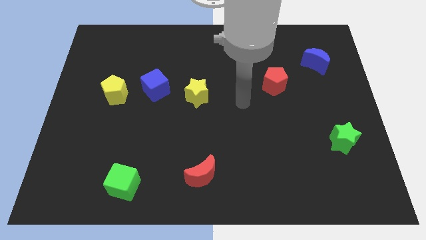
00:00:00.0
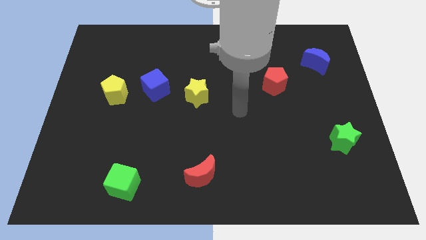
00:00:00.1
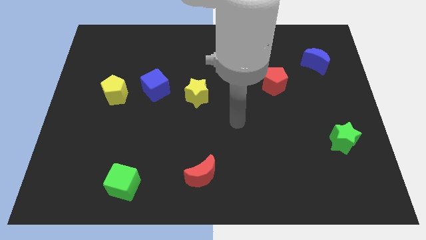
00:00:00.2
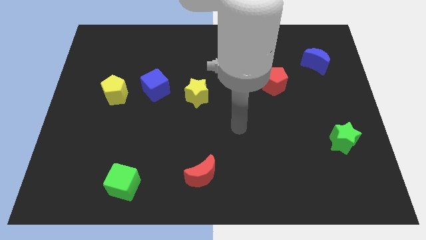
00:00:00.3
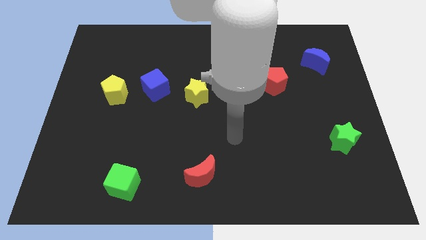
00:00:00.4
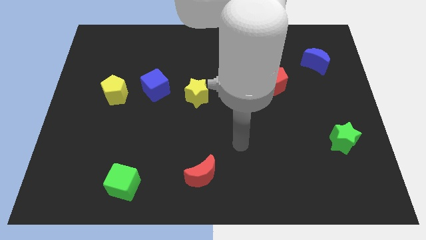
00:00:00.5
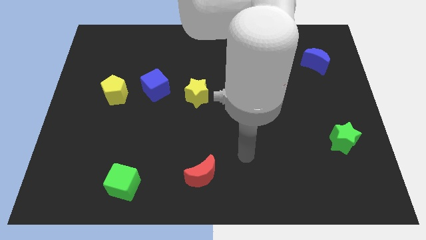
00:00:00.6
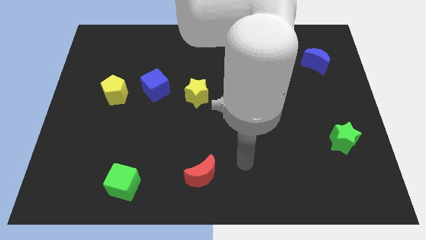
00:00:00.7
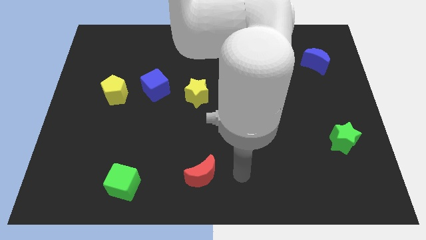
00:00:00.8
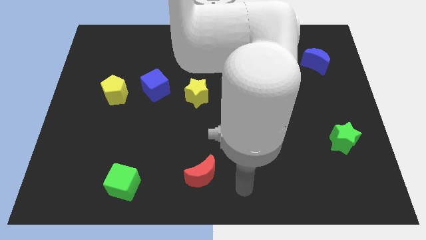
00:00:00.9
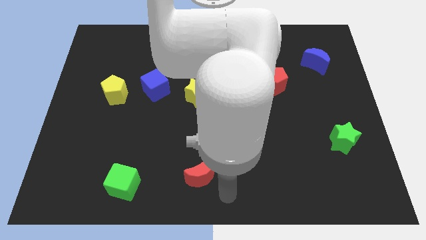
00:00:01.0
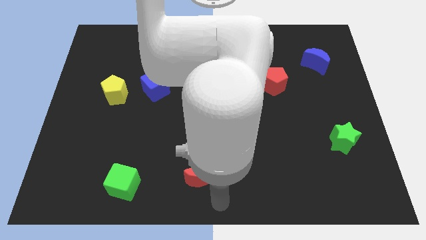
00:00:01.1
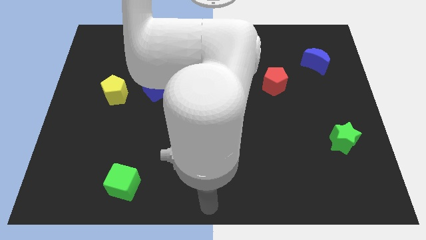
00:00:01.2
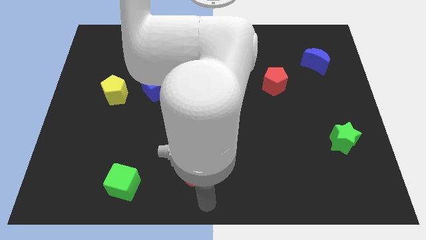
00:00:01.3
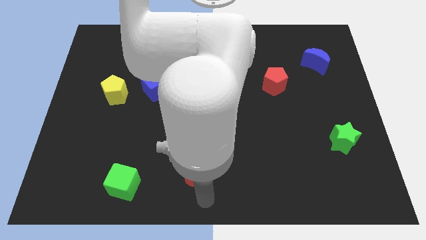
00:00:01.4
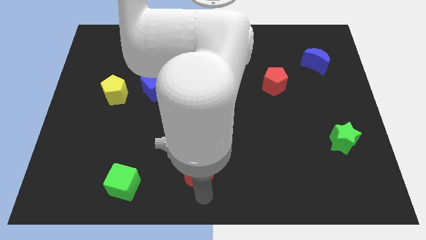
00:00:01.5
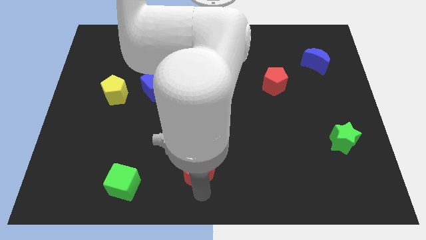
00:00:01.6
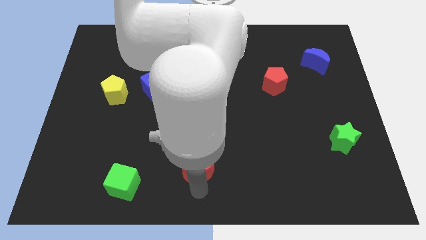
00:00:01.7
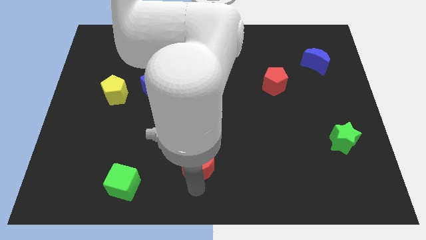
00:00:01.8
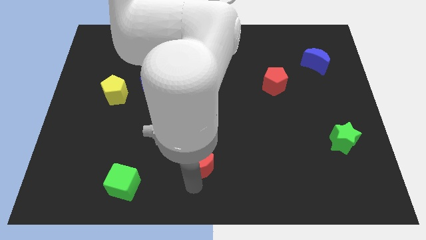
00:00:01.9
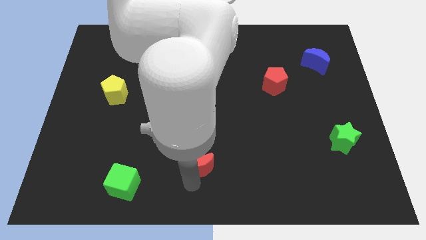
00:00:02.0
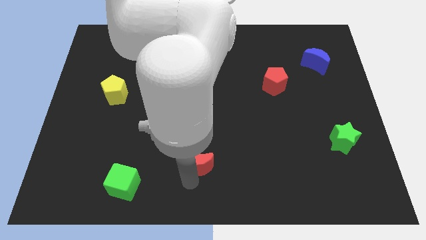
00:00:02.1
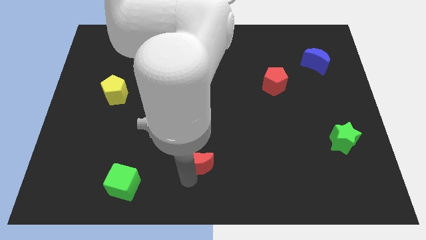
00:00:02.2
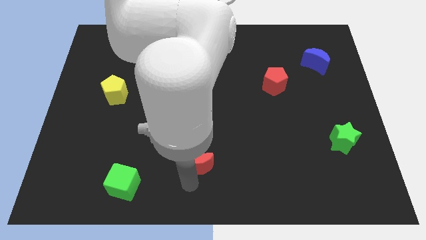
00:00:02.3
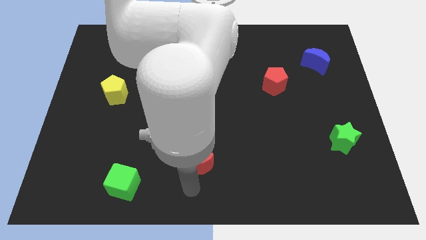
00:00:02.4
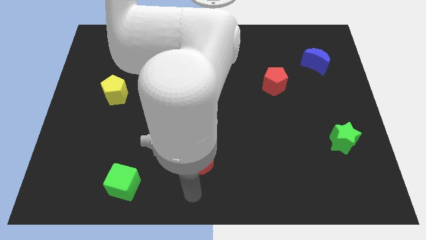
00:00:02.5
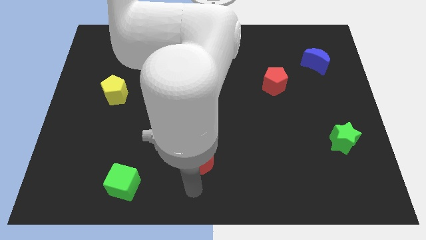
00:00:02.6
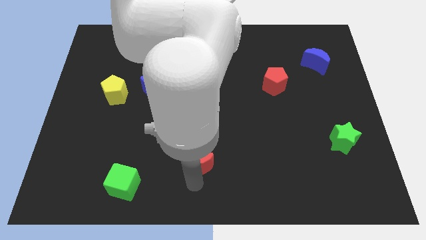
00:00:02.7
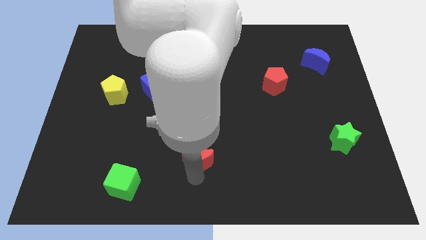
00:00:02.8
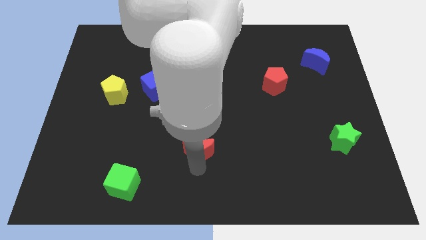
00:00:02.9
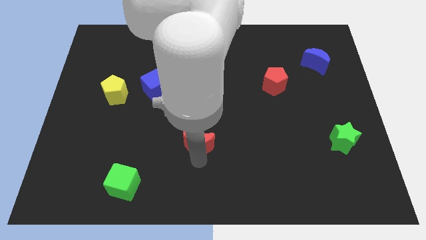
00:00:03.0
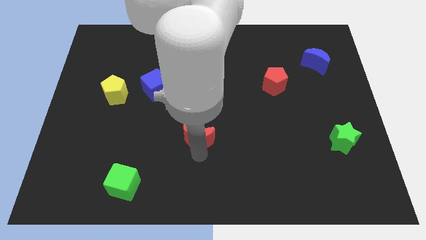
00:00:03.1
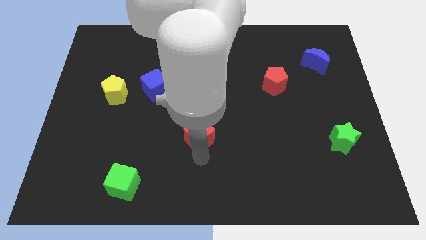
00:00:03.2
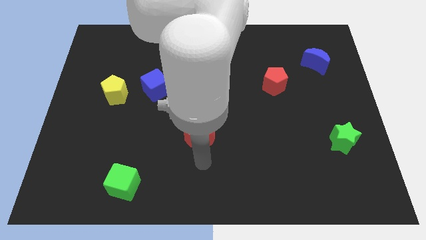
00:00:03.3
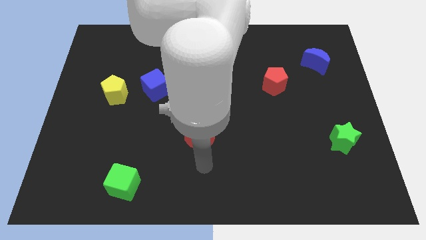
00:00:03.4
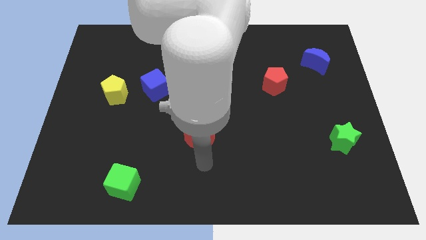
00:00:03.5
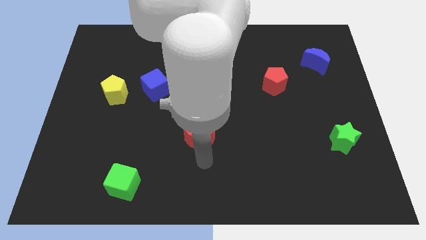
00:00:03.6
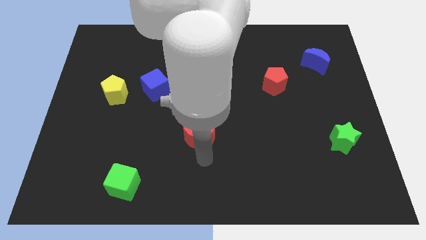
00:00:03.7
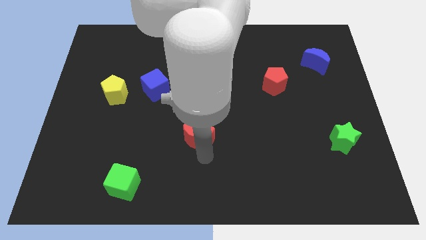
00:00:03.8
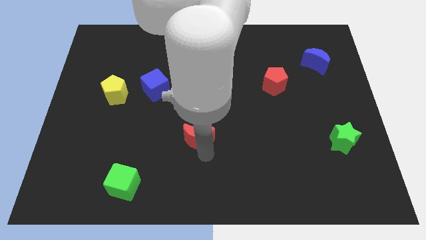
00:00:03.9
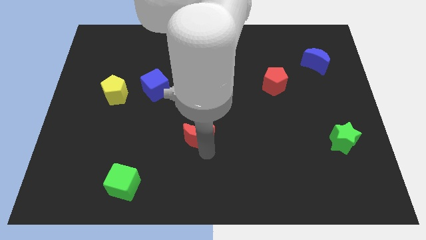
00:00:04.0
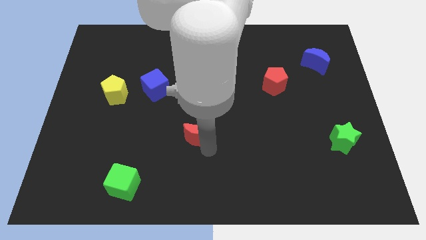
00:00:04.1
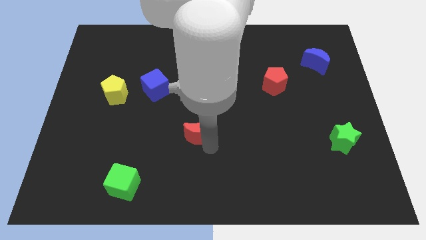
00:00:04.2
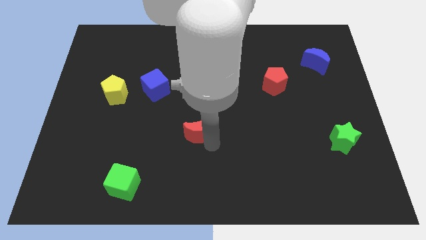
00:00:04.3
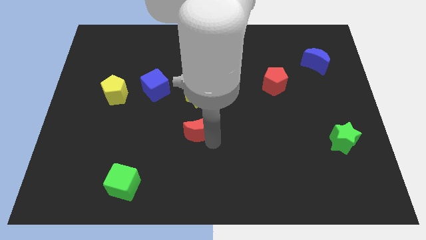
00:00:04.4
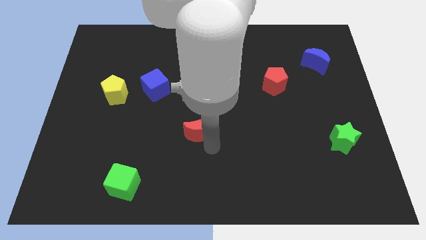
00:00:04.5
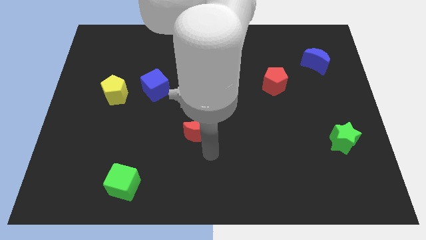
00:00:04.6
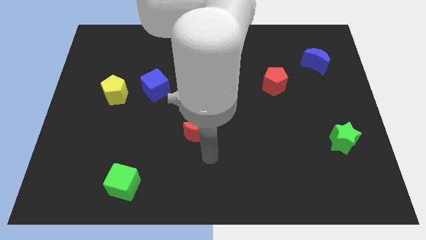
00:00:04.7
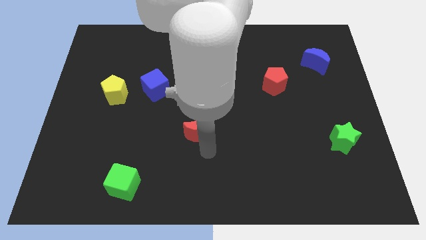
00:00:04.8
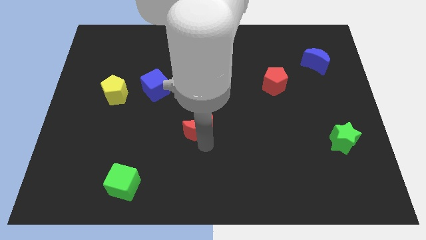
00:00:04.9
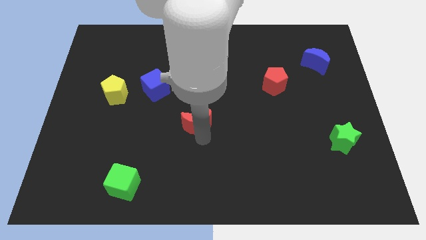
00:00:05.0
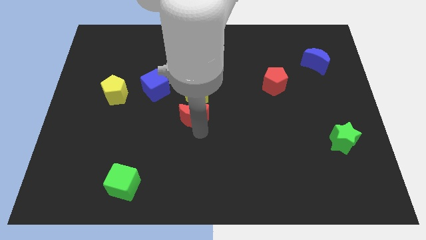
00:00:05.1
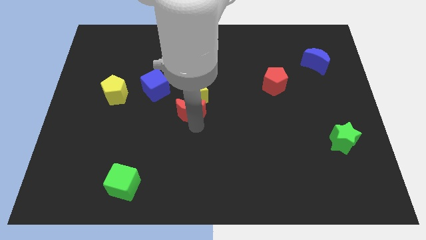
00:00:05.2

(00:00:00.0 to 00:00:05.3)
move the red moon to the yellow star

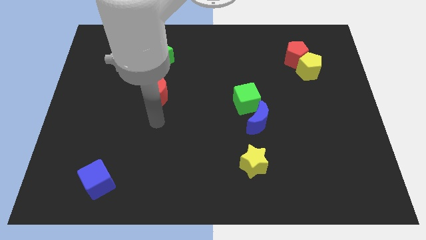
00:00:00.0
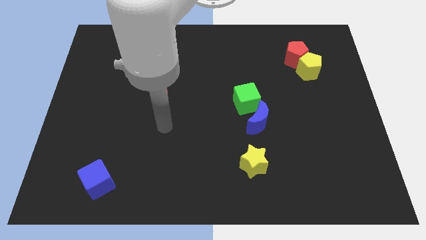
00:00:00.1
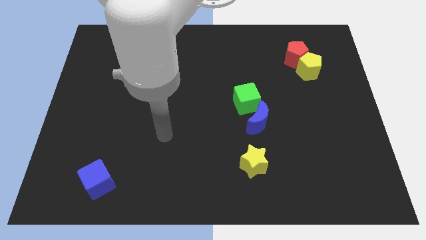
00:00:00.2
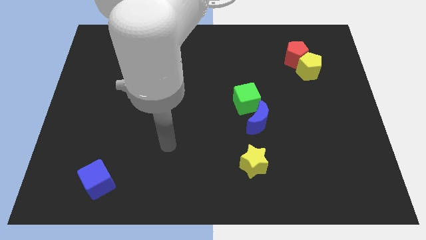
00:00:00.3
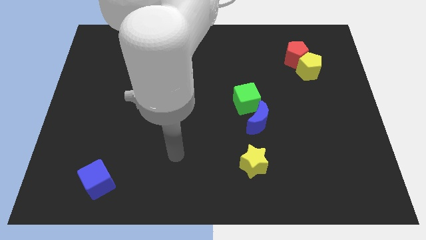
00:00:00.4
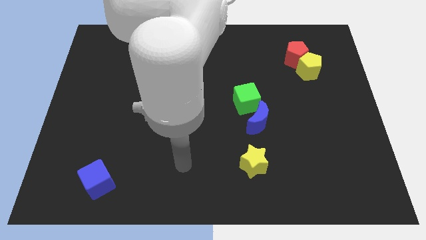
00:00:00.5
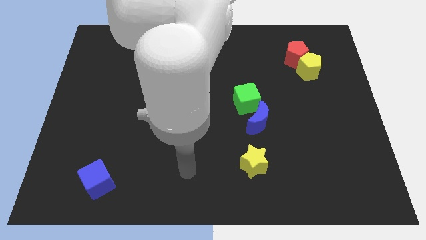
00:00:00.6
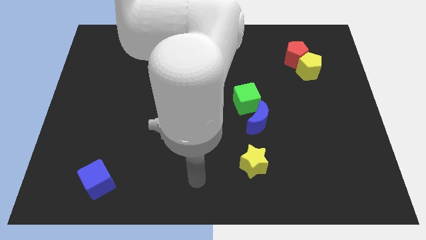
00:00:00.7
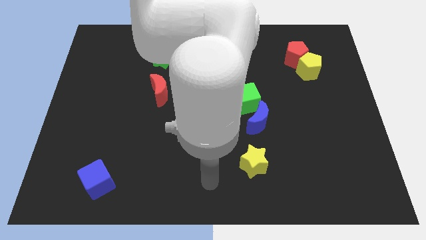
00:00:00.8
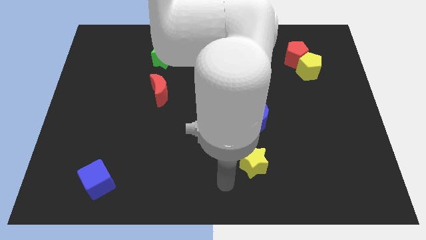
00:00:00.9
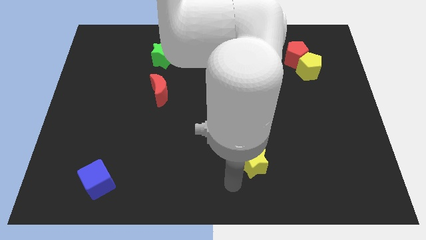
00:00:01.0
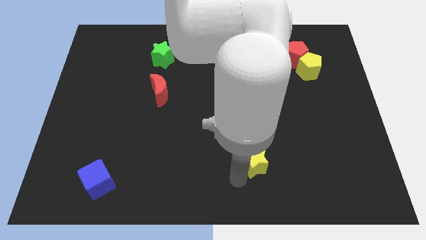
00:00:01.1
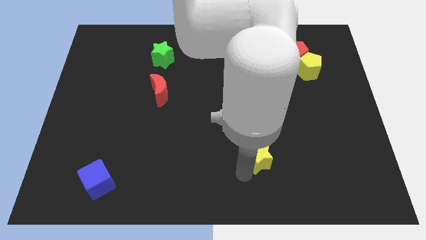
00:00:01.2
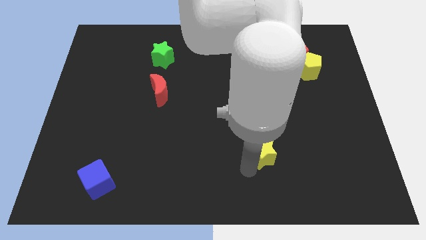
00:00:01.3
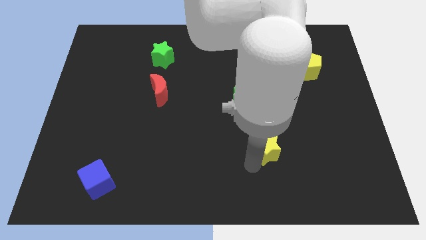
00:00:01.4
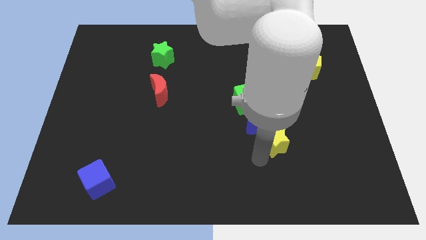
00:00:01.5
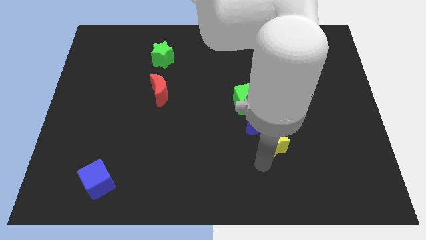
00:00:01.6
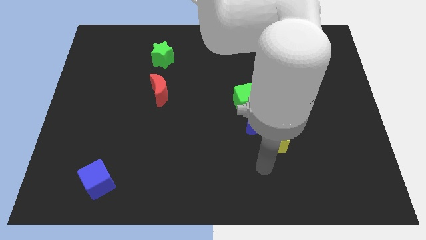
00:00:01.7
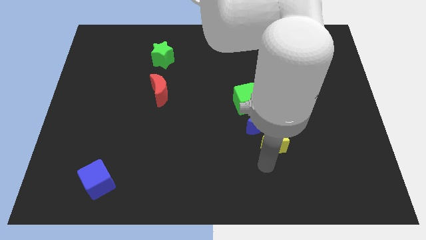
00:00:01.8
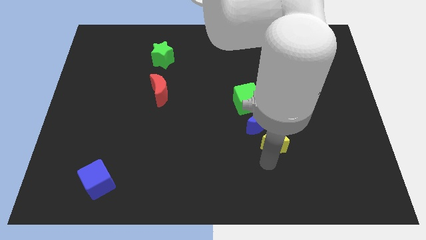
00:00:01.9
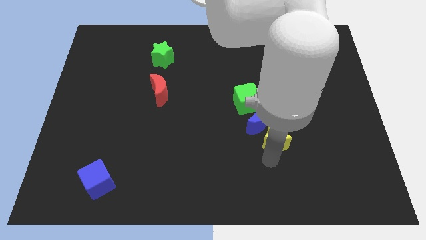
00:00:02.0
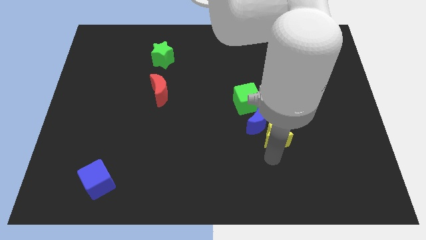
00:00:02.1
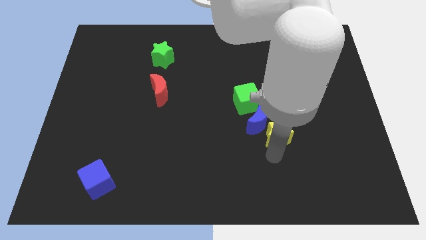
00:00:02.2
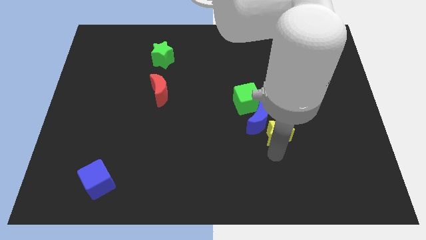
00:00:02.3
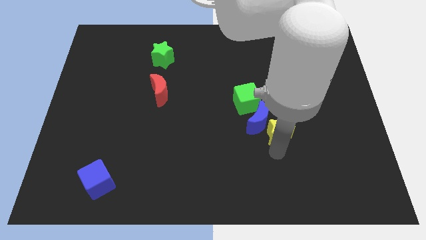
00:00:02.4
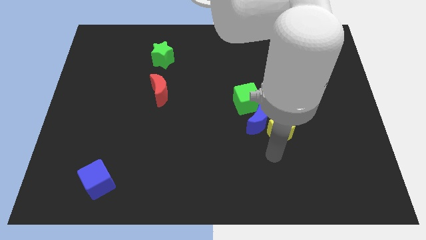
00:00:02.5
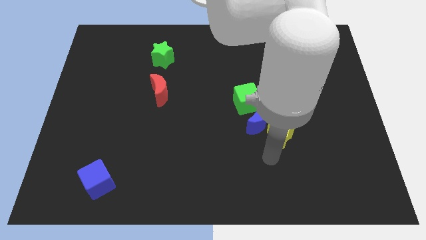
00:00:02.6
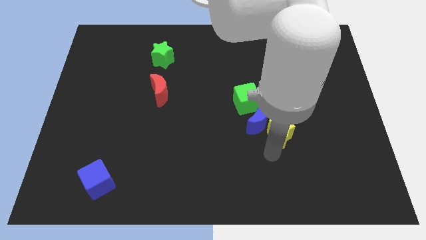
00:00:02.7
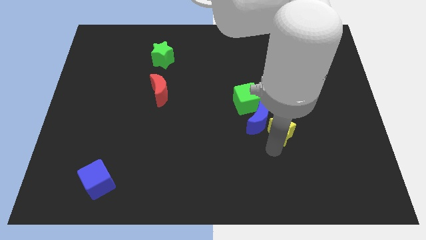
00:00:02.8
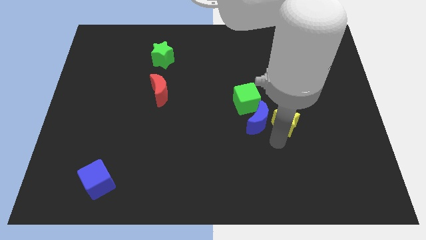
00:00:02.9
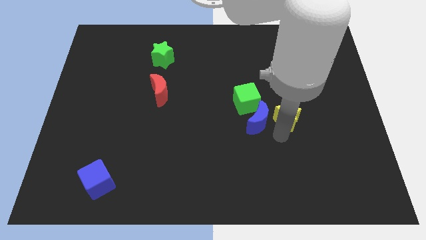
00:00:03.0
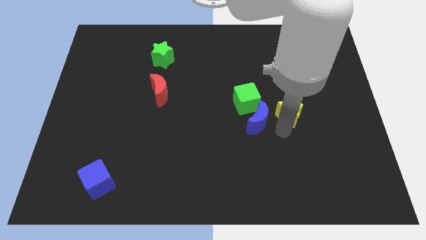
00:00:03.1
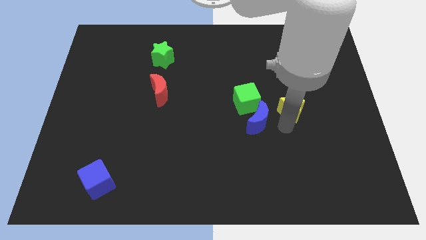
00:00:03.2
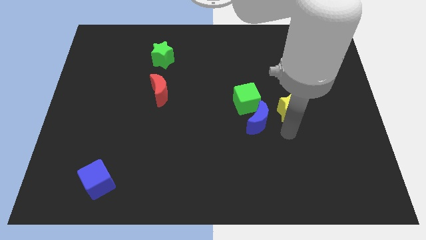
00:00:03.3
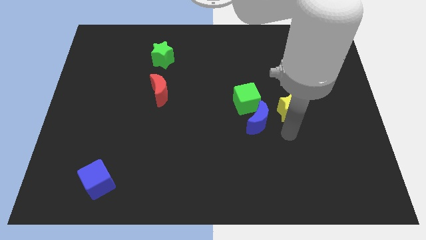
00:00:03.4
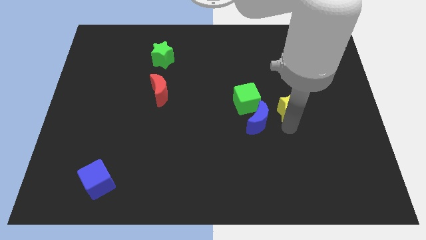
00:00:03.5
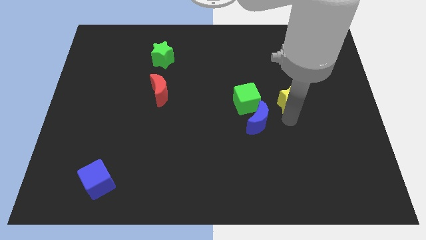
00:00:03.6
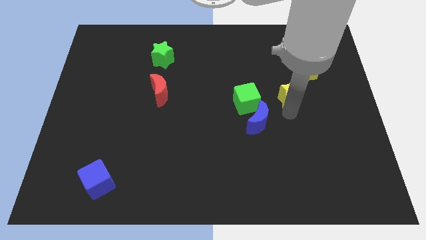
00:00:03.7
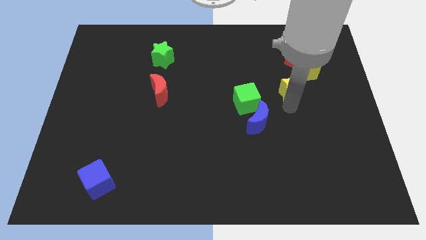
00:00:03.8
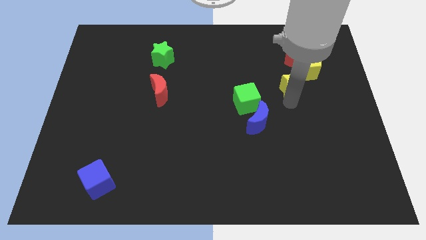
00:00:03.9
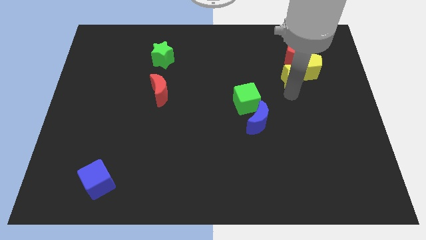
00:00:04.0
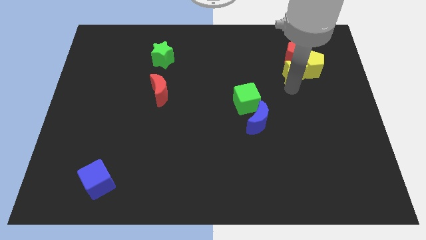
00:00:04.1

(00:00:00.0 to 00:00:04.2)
put the yellow star next to the red pentagon
